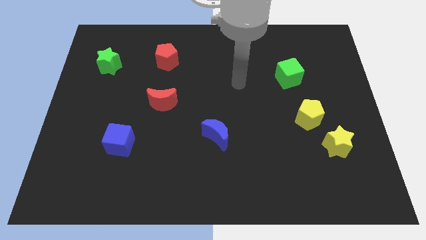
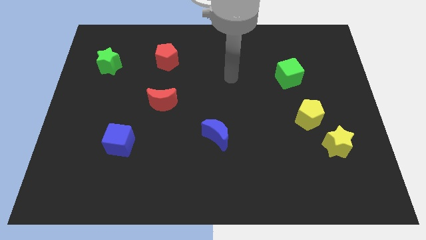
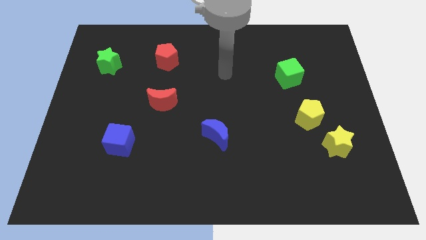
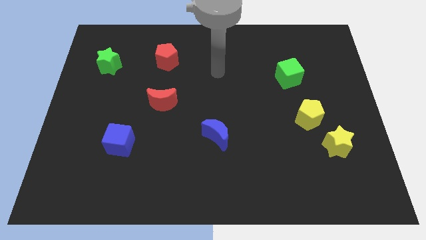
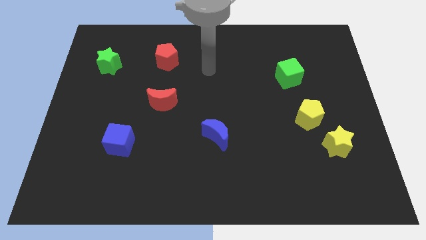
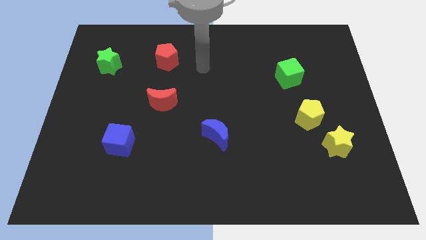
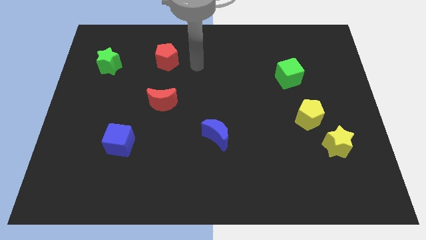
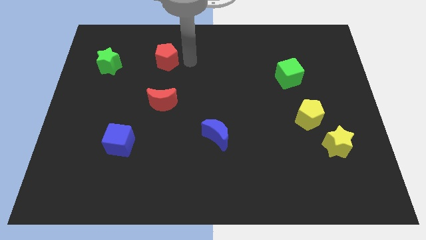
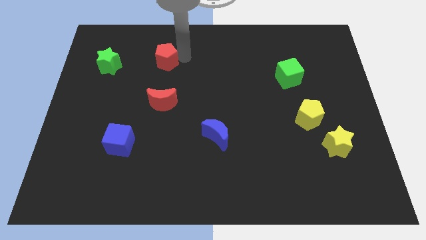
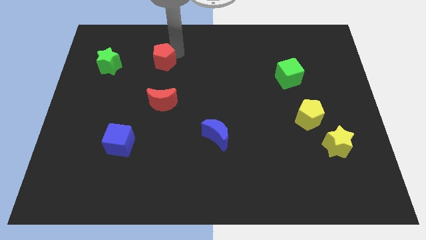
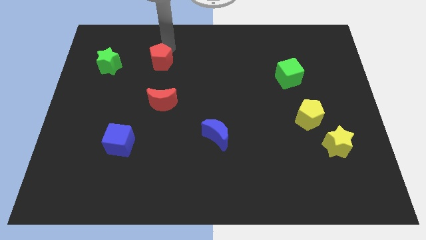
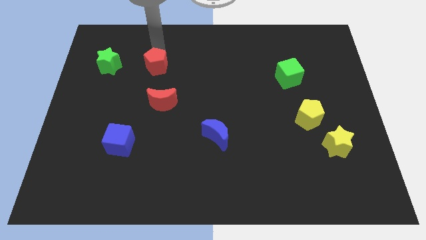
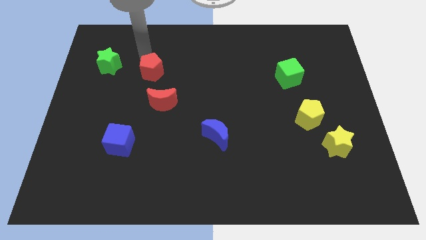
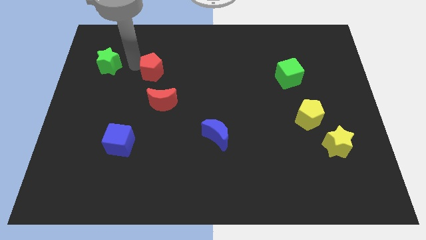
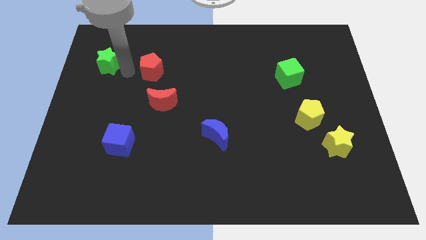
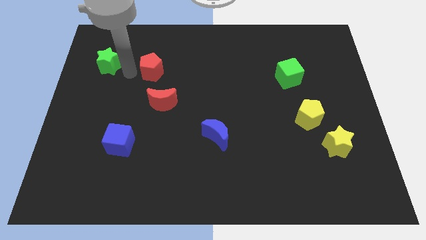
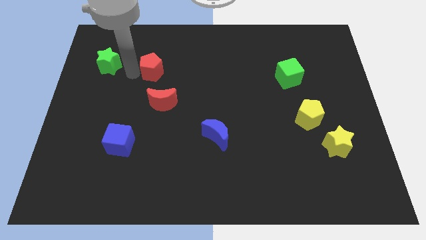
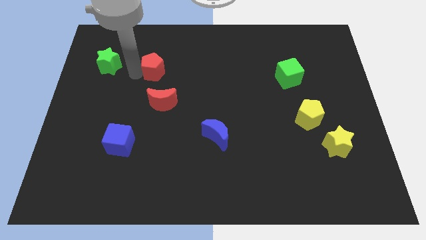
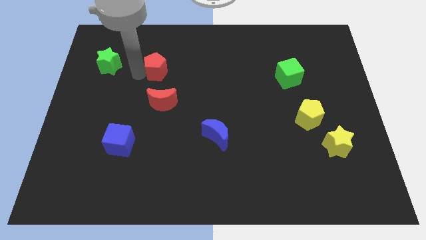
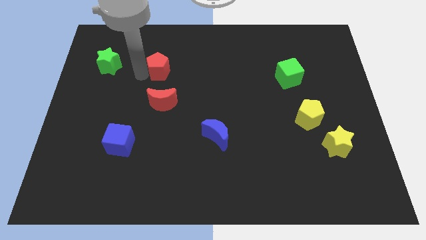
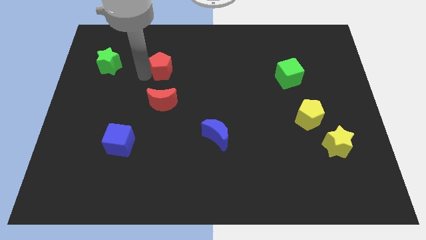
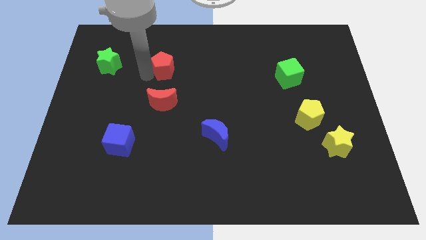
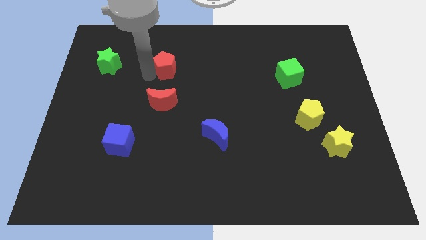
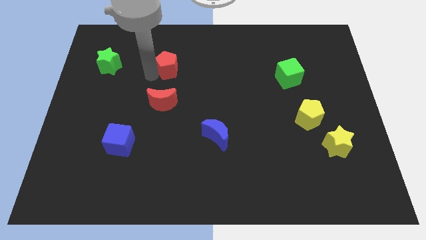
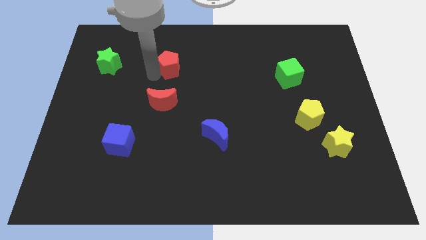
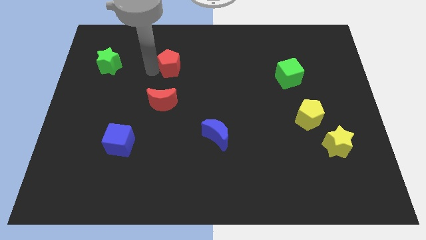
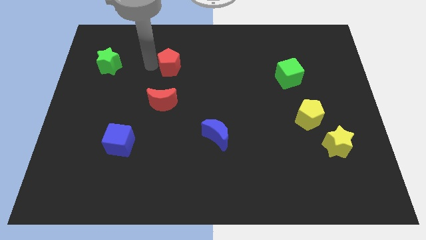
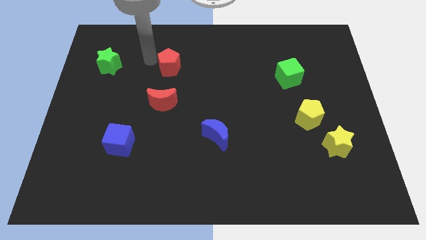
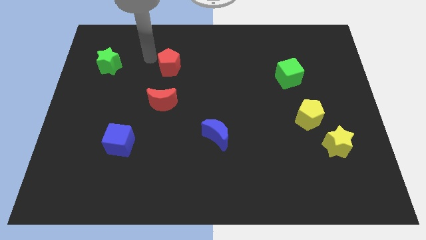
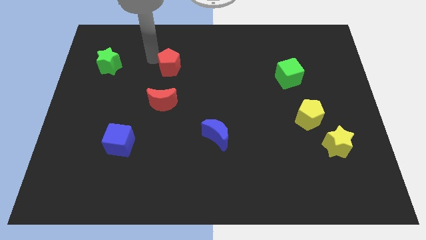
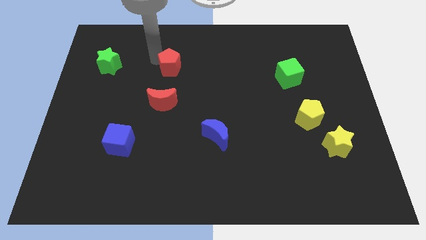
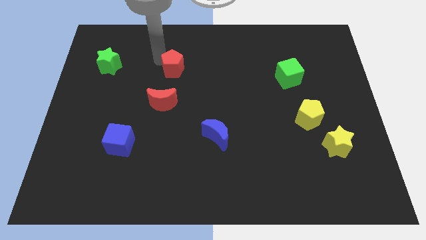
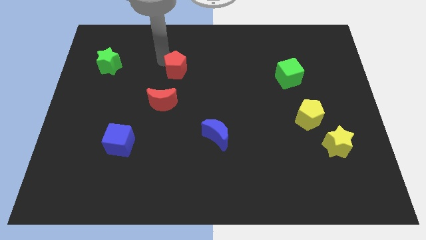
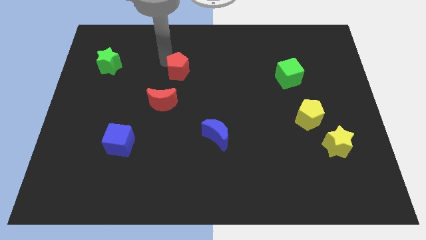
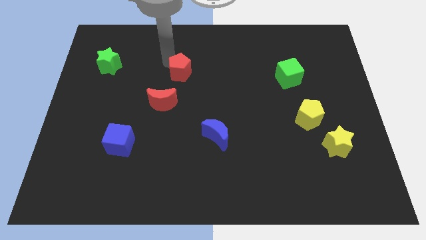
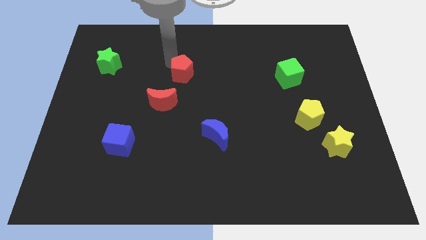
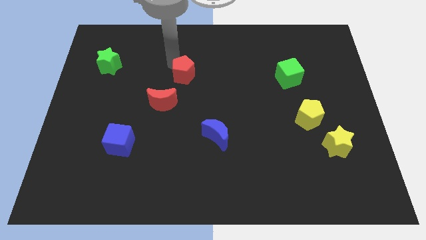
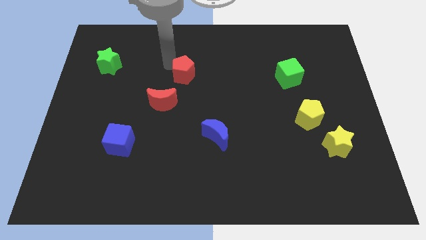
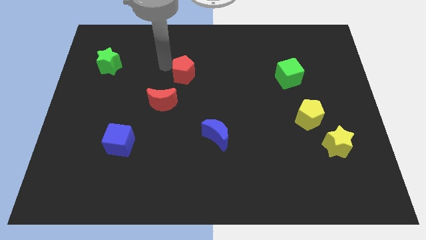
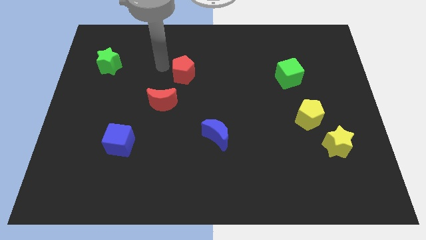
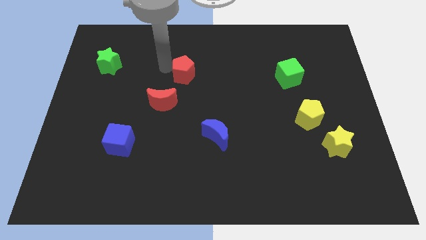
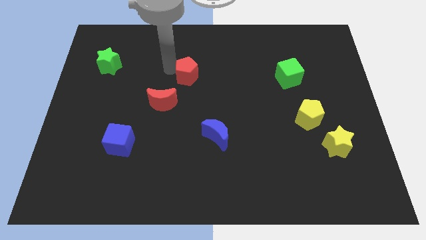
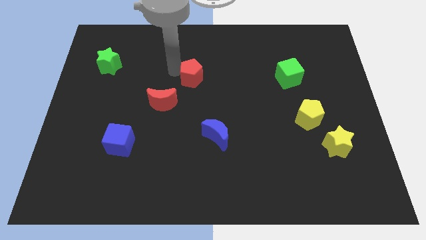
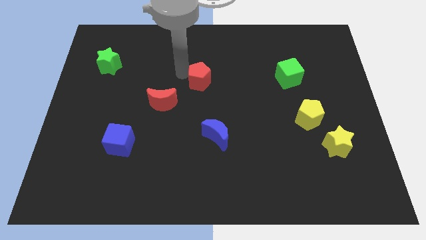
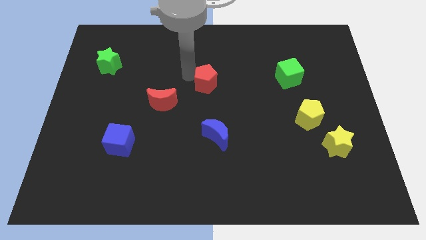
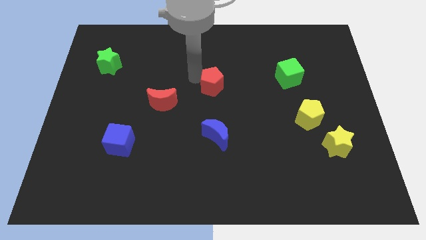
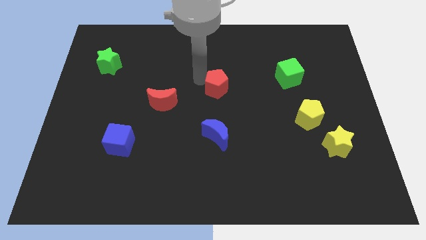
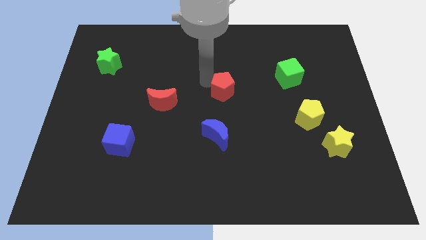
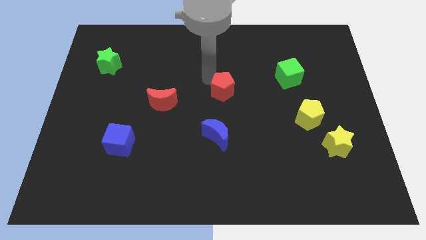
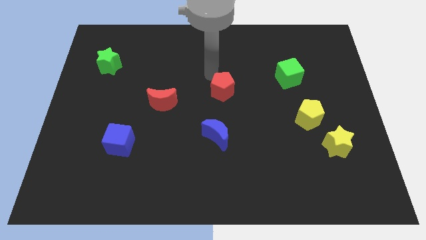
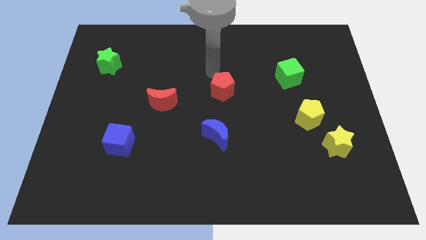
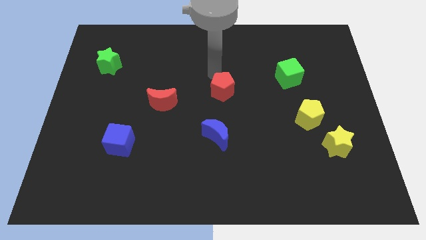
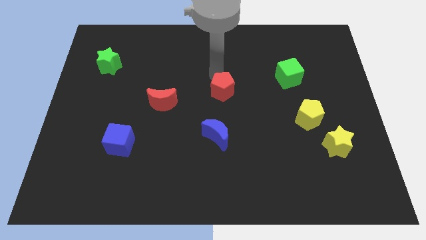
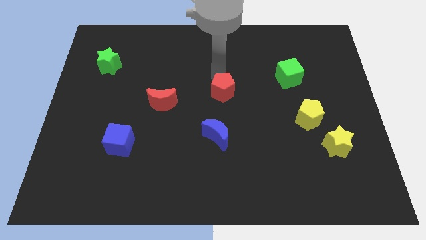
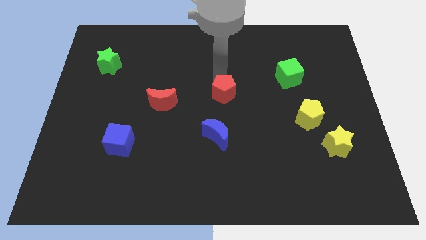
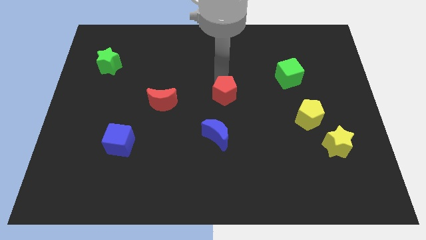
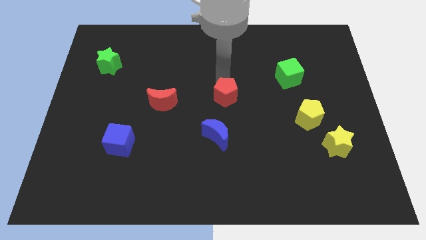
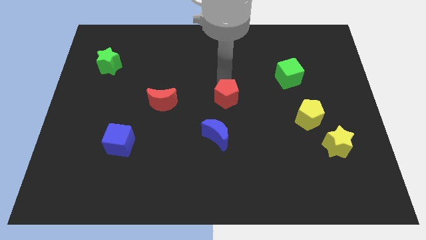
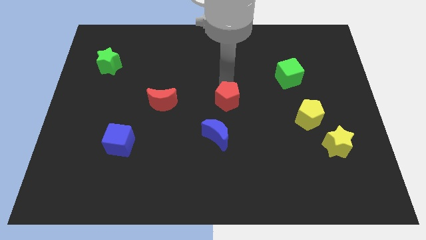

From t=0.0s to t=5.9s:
push the red pentagon down and then to the right

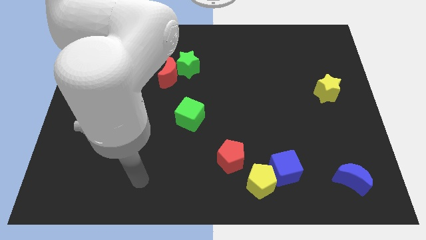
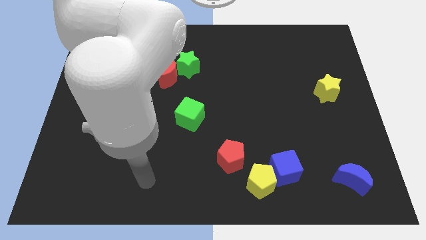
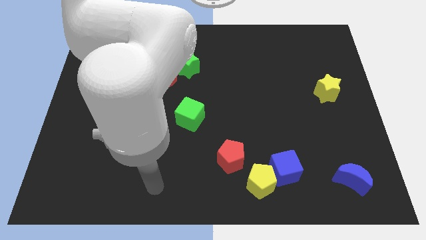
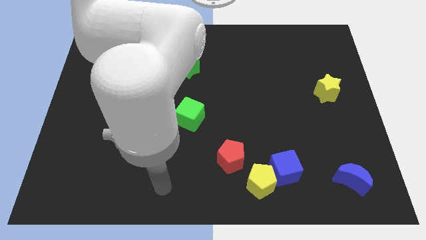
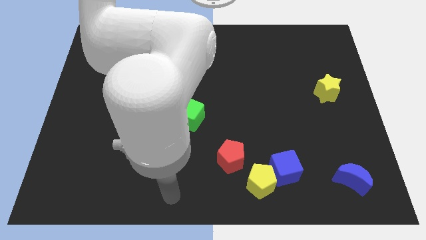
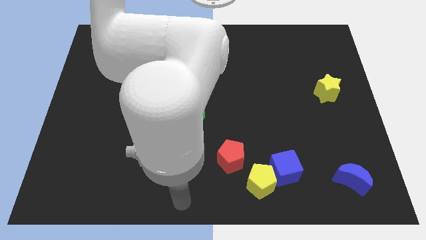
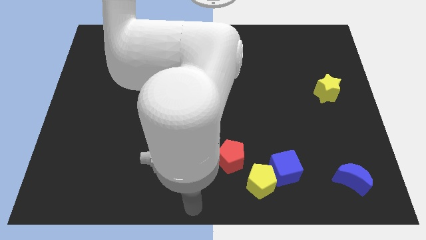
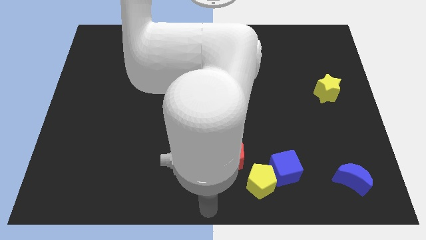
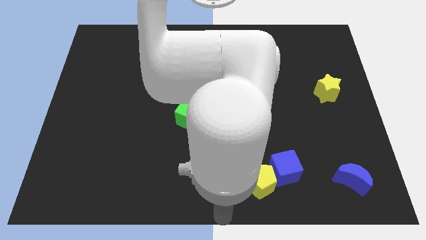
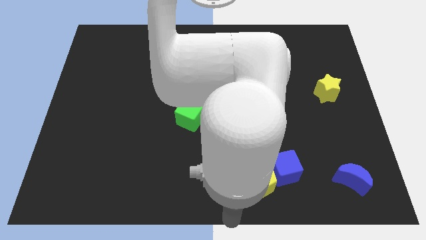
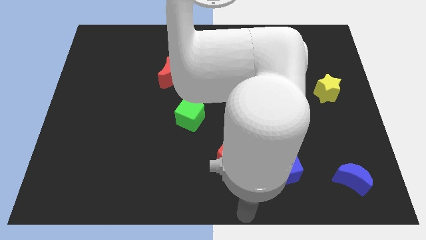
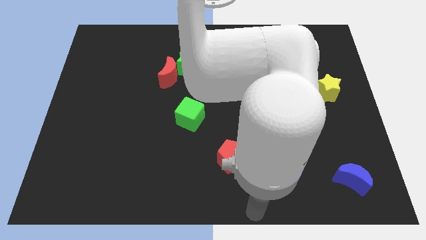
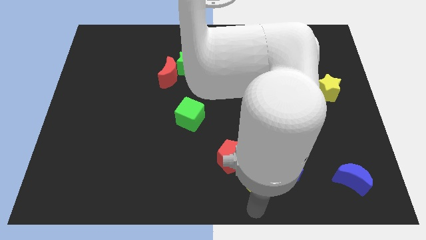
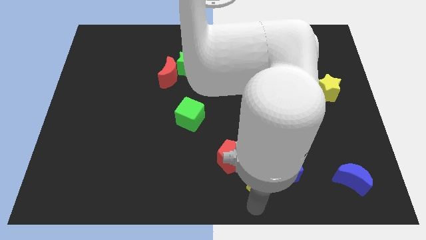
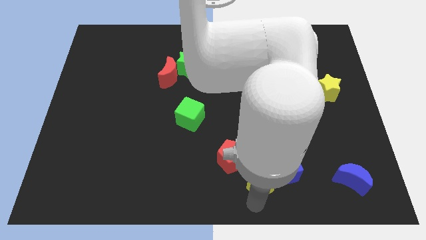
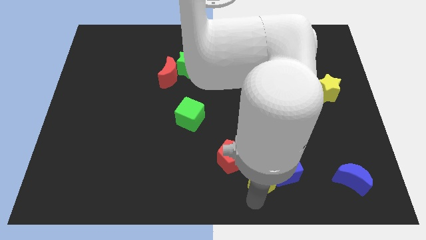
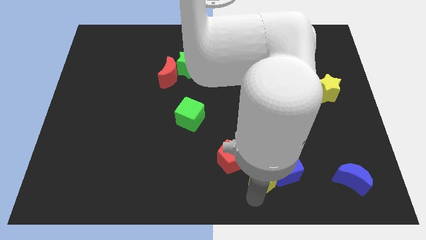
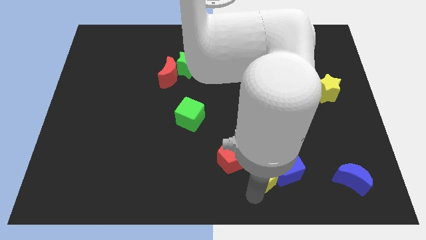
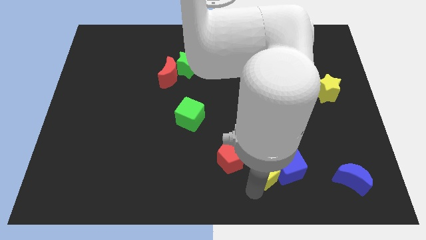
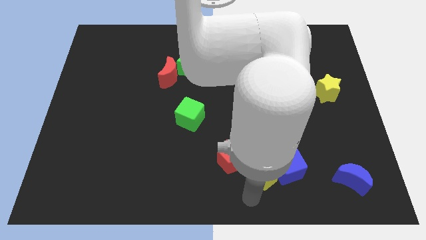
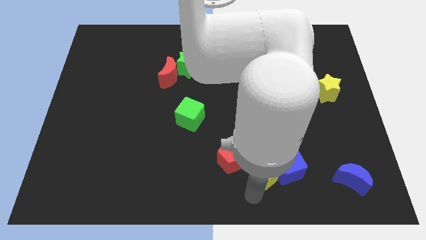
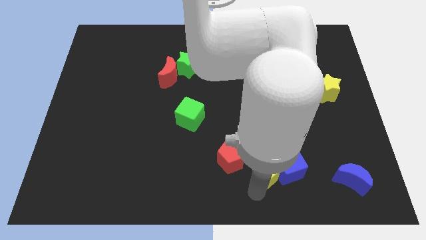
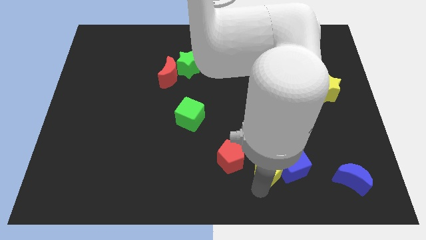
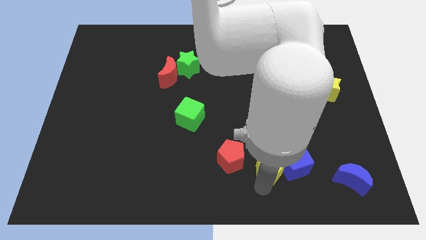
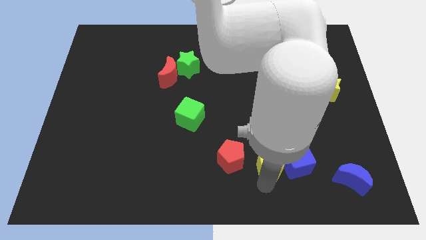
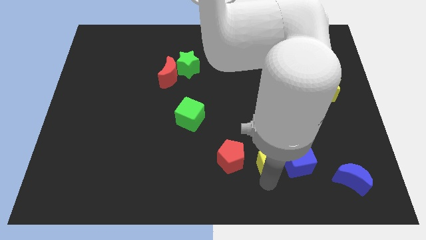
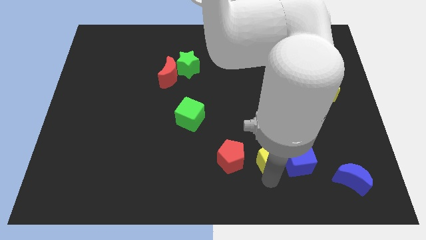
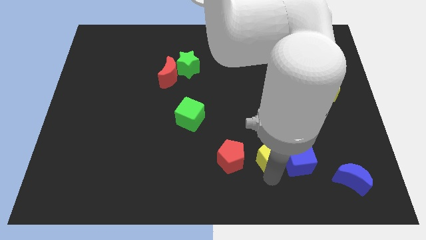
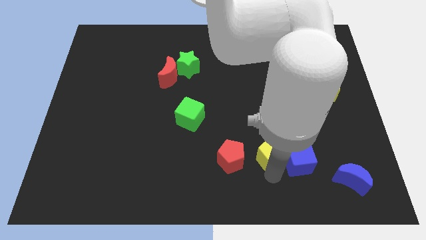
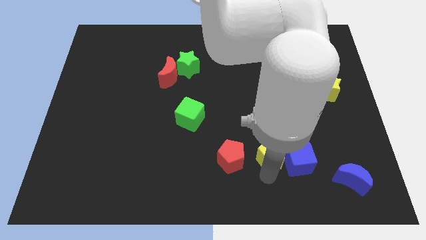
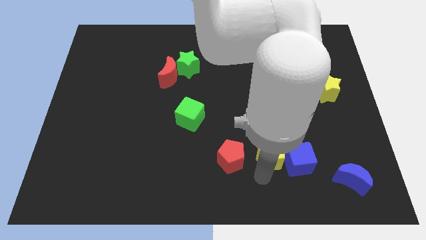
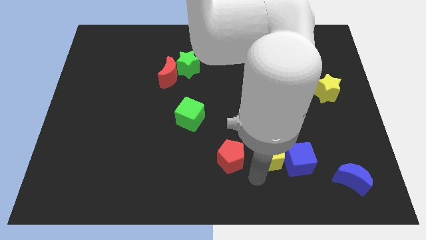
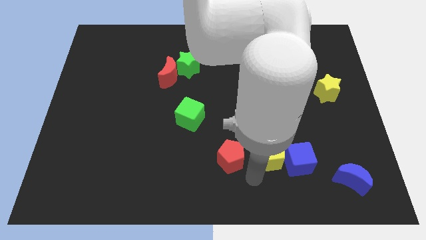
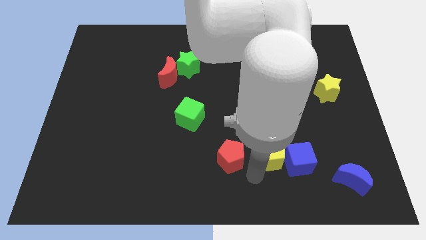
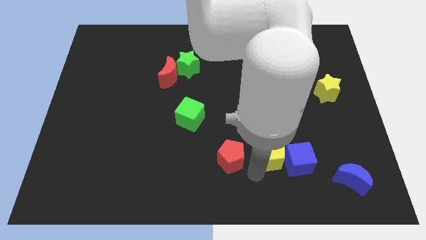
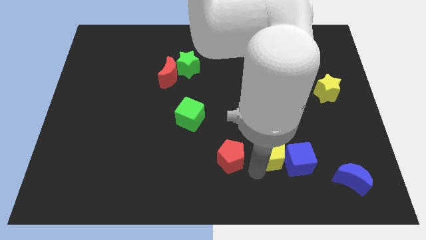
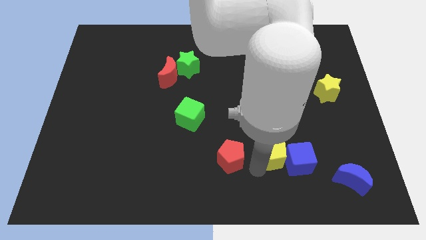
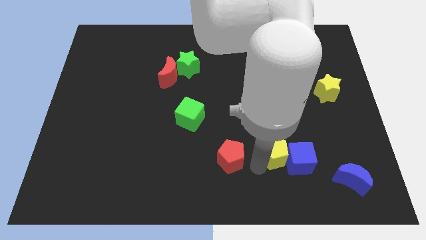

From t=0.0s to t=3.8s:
slide the yellow pentagon up and then right somewhat
